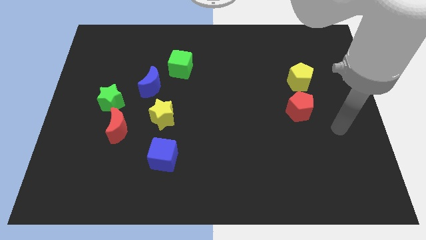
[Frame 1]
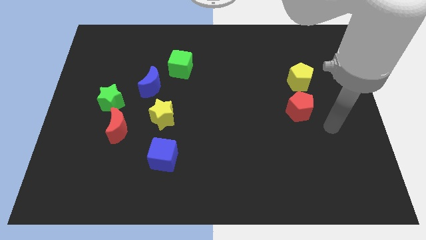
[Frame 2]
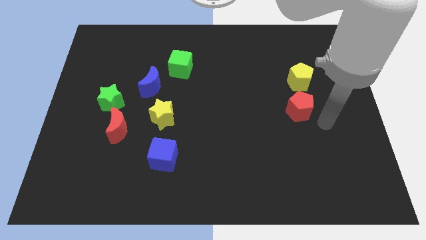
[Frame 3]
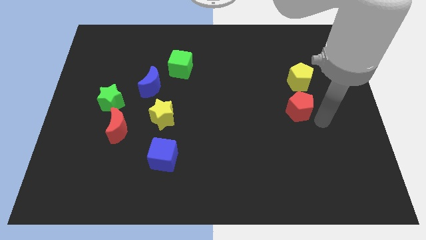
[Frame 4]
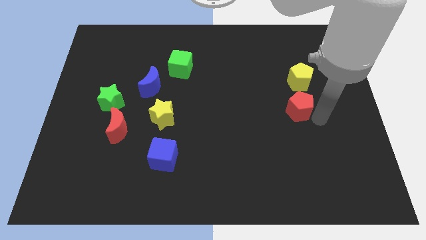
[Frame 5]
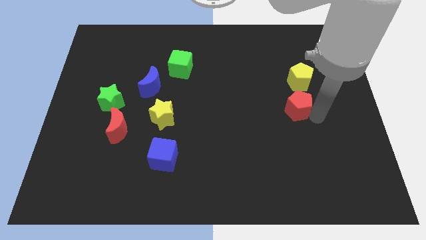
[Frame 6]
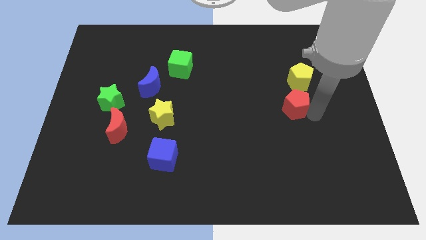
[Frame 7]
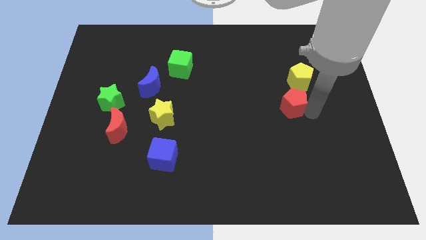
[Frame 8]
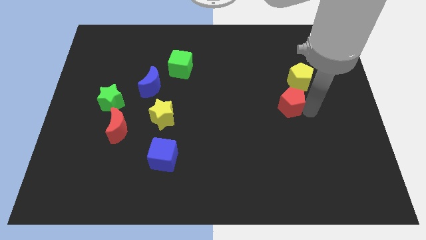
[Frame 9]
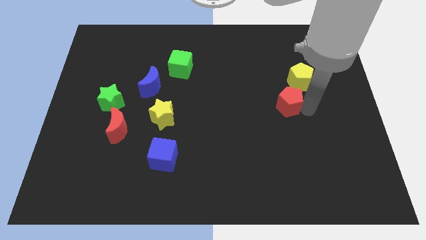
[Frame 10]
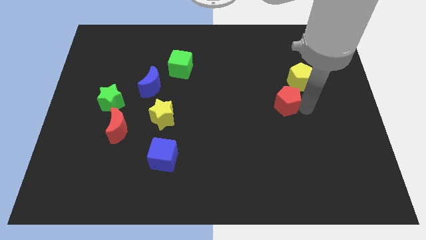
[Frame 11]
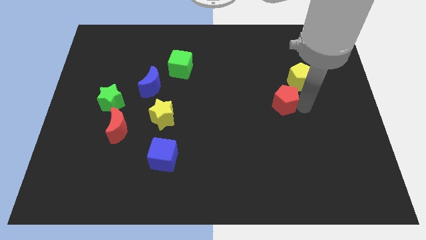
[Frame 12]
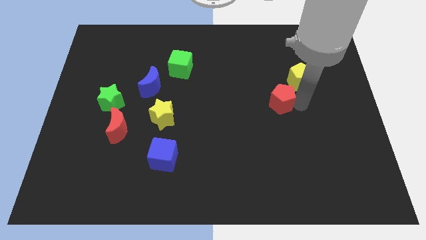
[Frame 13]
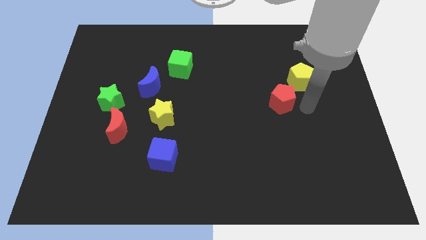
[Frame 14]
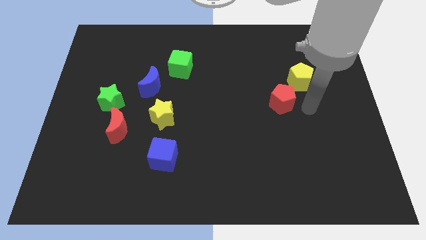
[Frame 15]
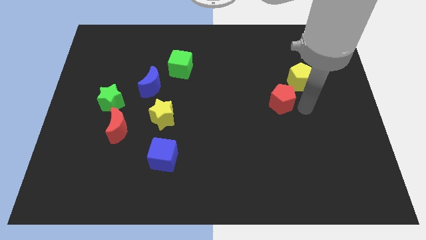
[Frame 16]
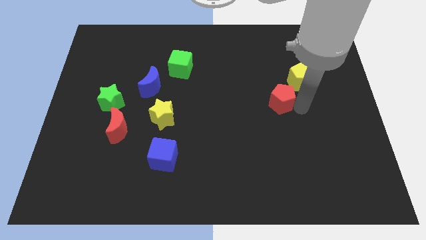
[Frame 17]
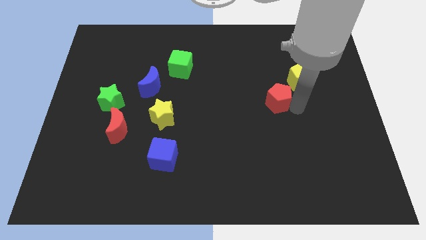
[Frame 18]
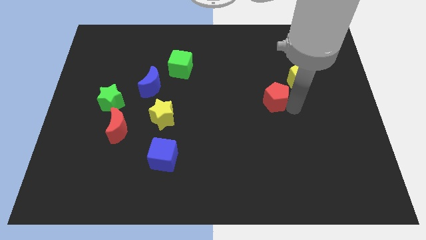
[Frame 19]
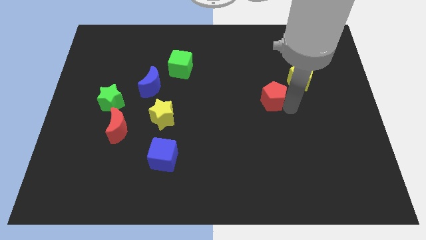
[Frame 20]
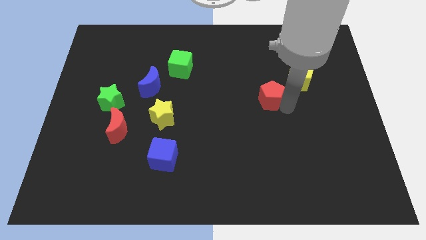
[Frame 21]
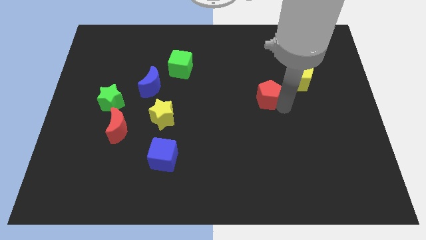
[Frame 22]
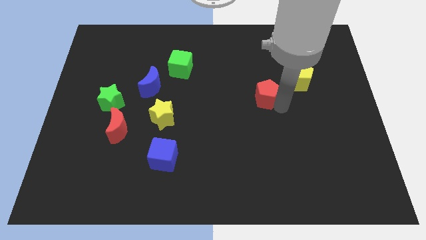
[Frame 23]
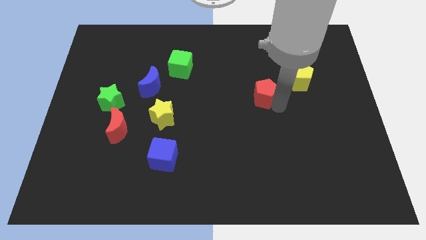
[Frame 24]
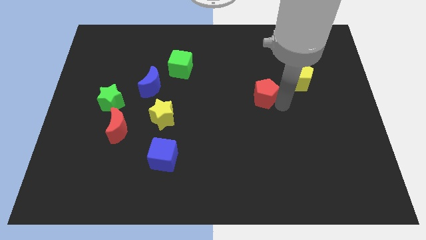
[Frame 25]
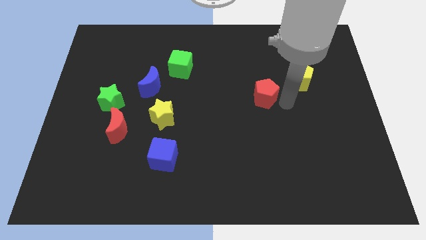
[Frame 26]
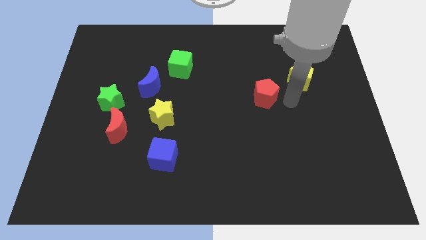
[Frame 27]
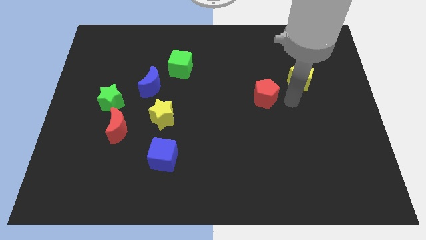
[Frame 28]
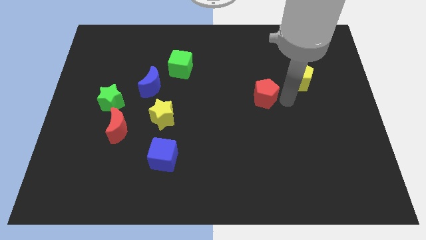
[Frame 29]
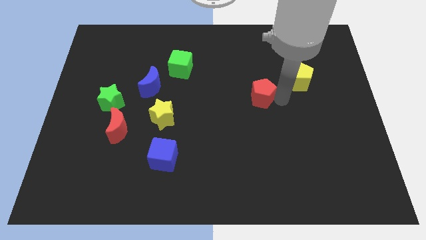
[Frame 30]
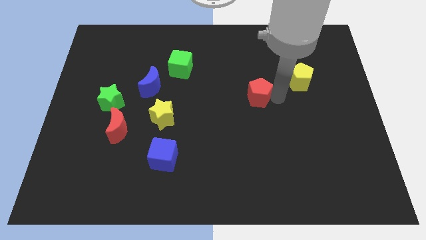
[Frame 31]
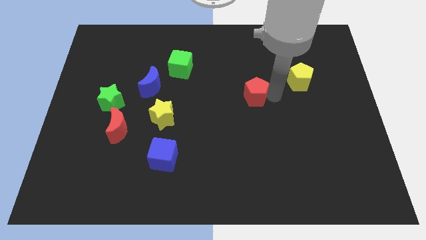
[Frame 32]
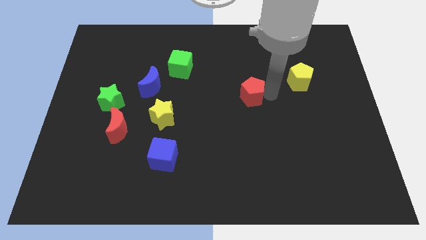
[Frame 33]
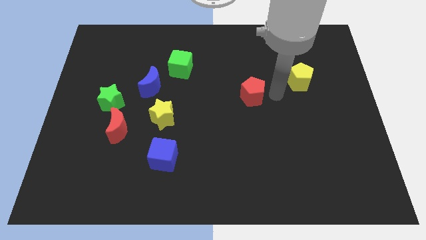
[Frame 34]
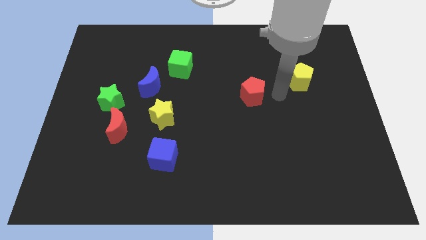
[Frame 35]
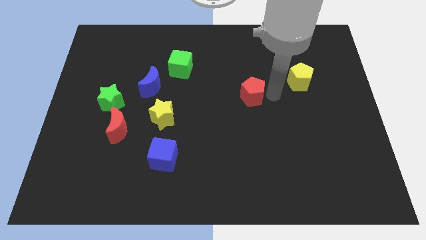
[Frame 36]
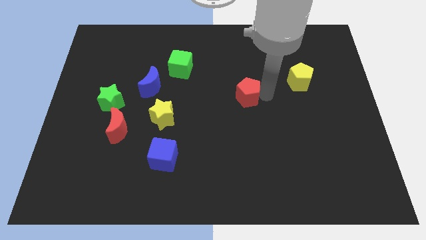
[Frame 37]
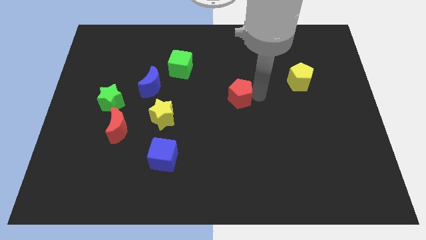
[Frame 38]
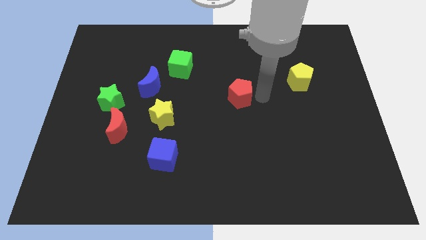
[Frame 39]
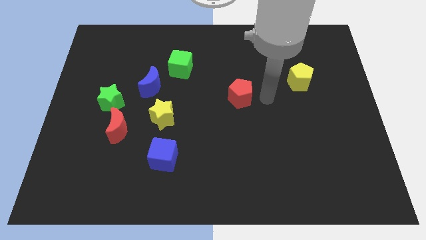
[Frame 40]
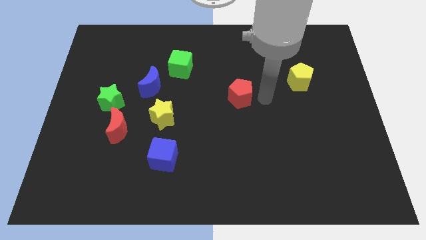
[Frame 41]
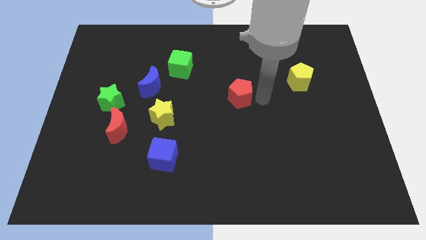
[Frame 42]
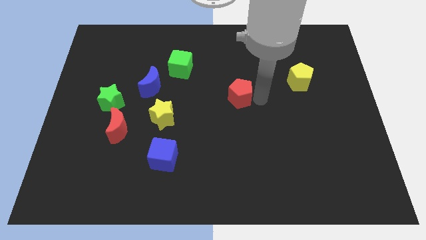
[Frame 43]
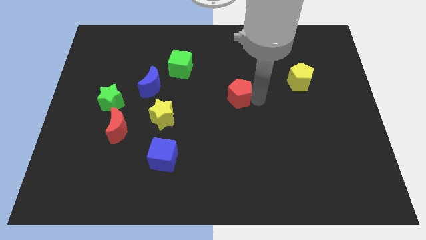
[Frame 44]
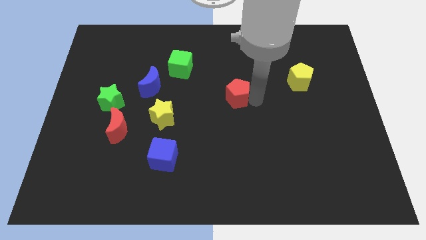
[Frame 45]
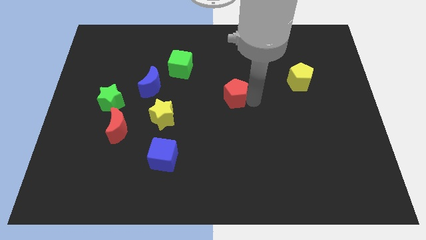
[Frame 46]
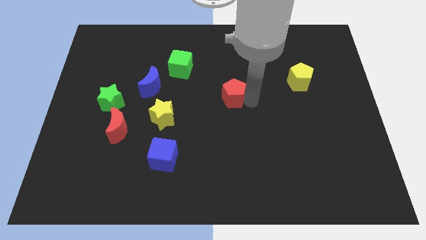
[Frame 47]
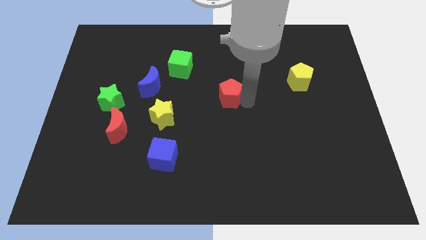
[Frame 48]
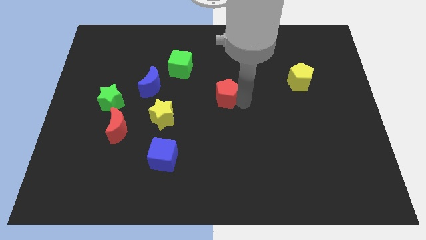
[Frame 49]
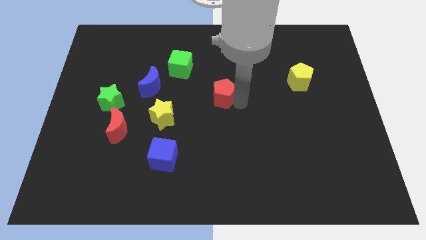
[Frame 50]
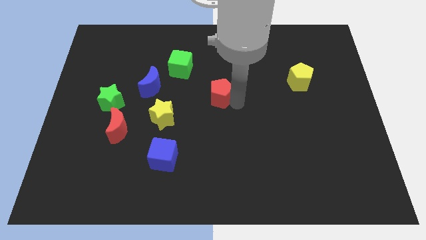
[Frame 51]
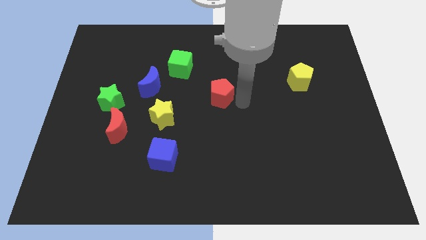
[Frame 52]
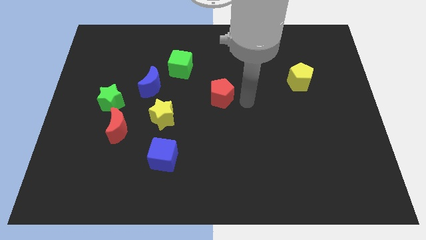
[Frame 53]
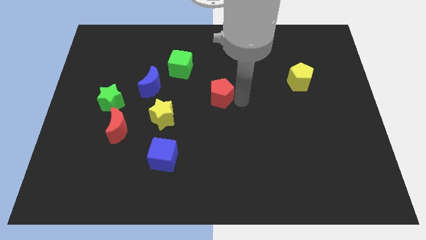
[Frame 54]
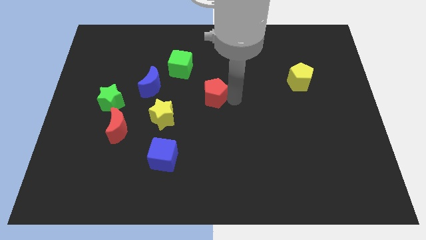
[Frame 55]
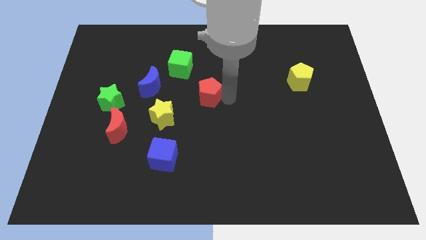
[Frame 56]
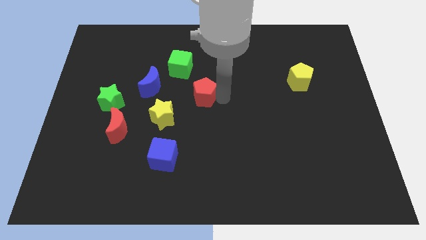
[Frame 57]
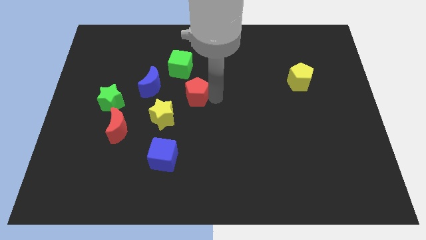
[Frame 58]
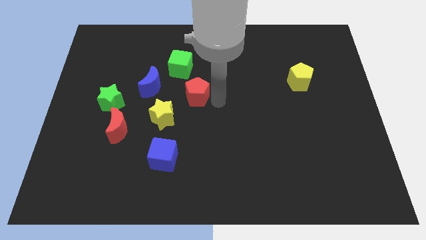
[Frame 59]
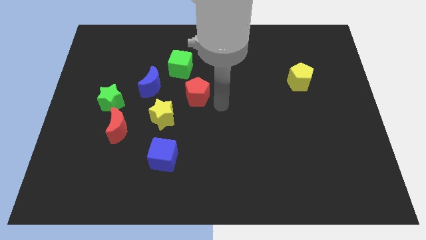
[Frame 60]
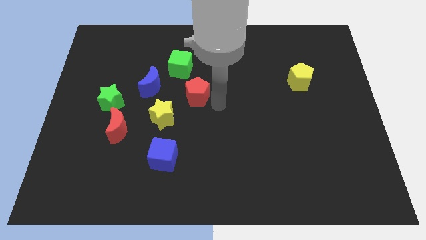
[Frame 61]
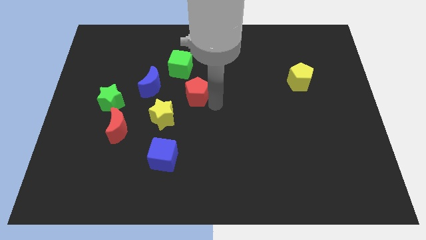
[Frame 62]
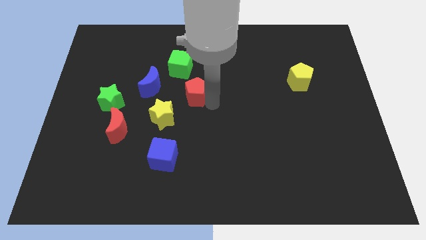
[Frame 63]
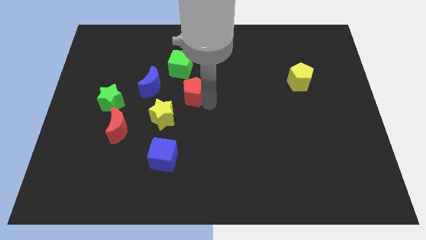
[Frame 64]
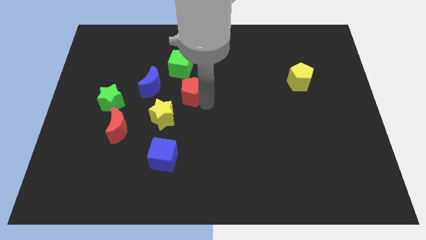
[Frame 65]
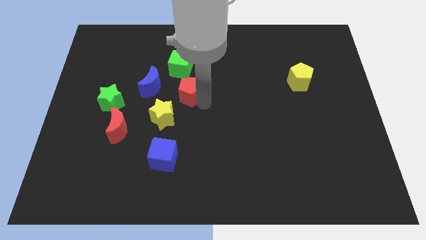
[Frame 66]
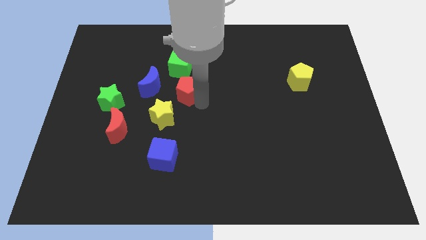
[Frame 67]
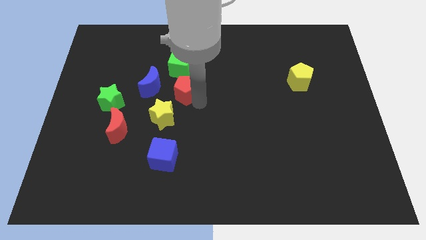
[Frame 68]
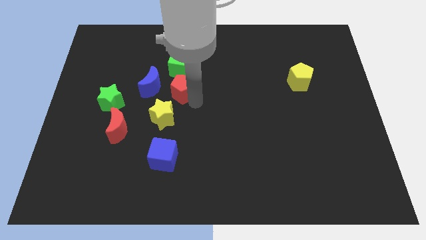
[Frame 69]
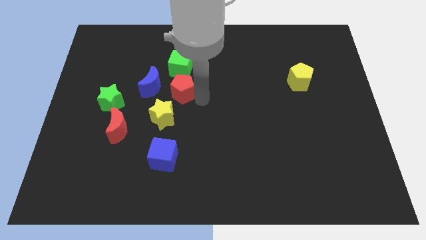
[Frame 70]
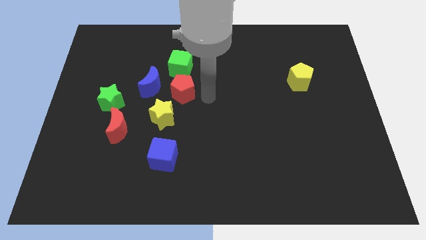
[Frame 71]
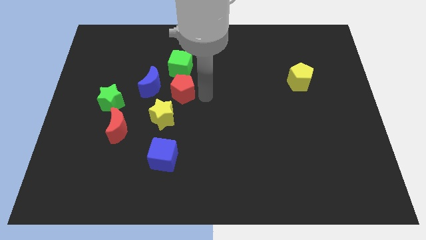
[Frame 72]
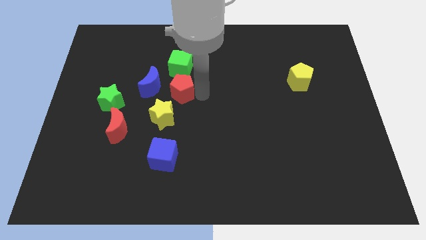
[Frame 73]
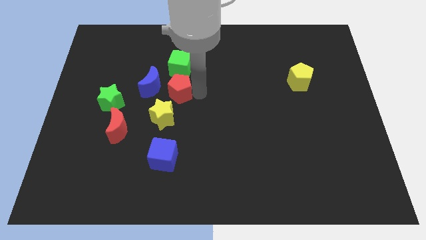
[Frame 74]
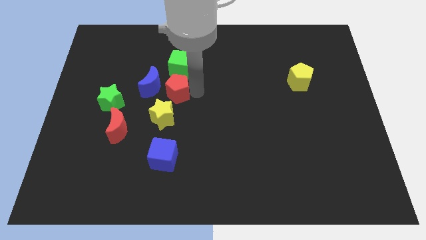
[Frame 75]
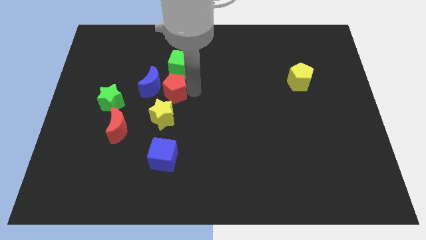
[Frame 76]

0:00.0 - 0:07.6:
push the red pentagon close to the blue moon
